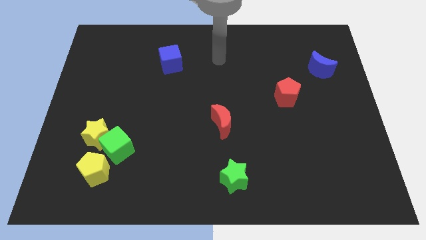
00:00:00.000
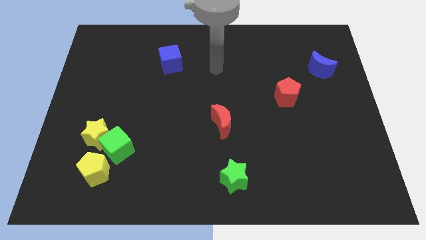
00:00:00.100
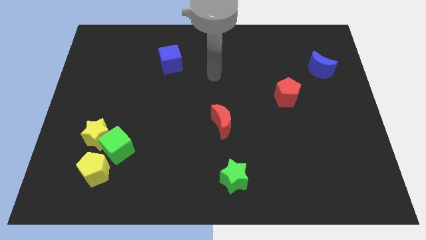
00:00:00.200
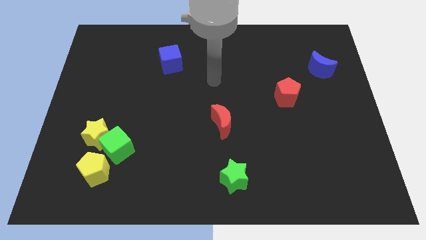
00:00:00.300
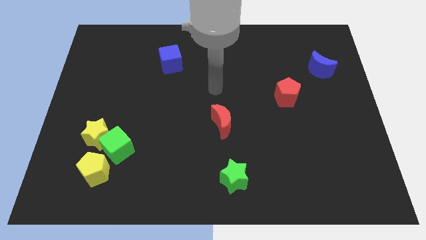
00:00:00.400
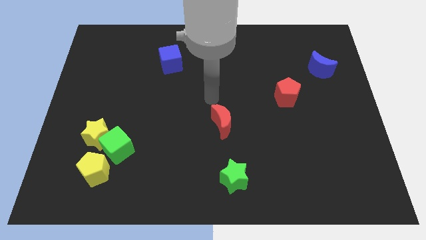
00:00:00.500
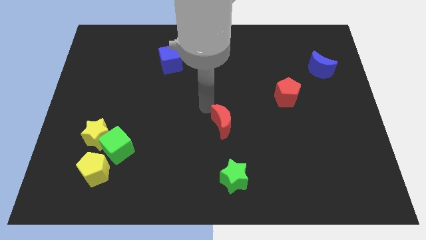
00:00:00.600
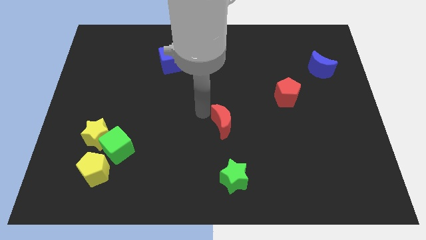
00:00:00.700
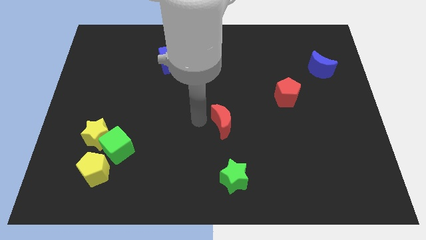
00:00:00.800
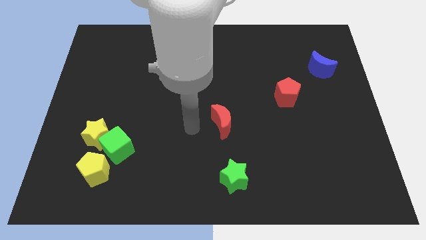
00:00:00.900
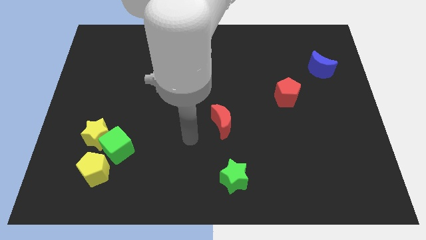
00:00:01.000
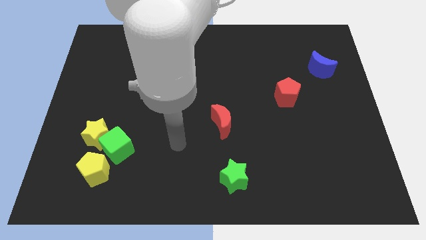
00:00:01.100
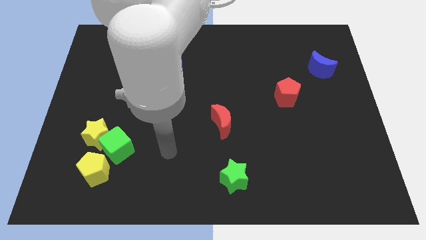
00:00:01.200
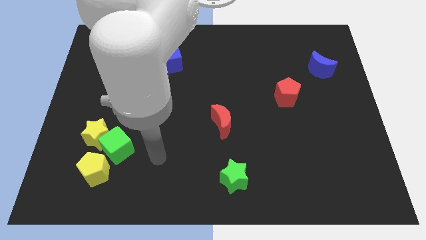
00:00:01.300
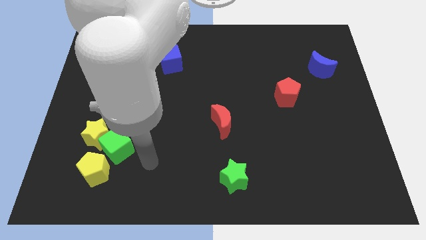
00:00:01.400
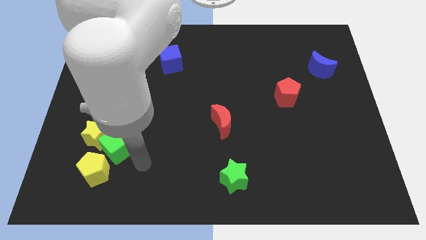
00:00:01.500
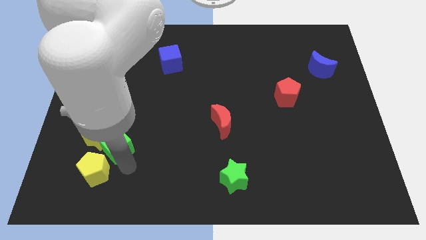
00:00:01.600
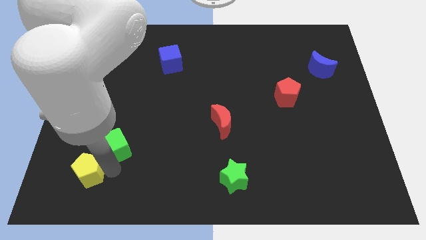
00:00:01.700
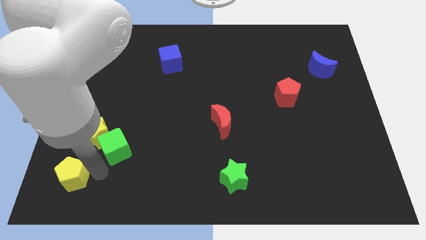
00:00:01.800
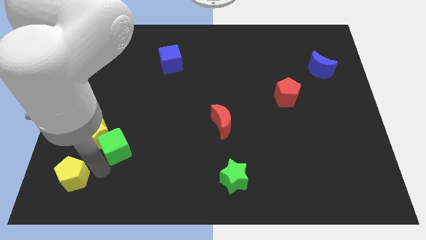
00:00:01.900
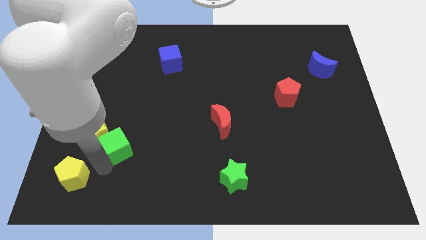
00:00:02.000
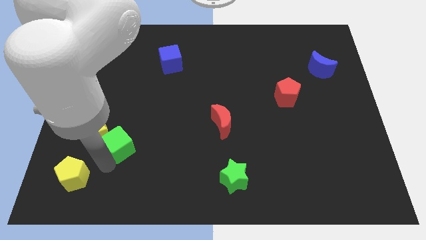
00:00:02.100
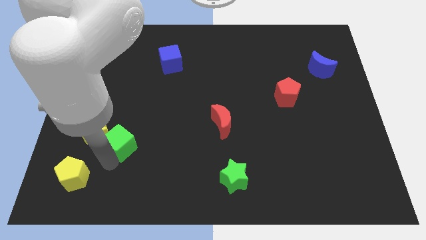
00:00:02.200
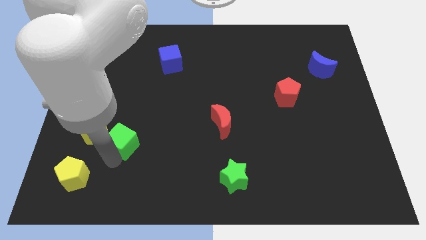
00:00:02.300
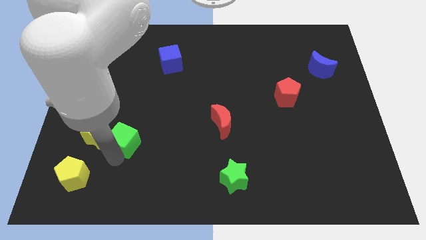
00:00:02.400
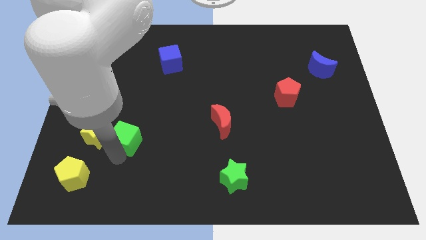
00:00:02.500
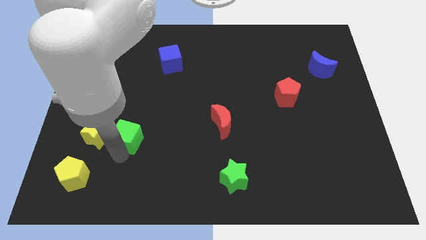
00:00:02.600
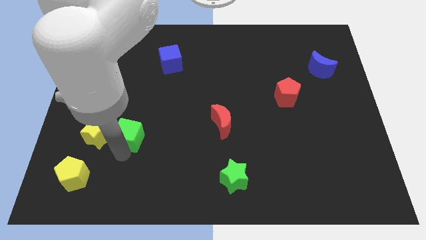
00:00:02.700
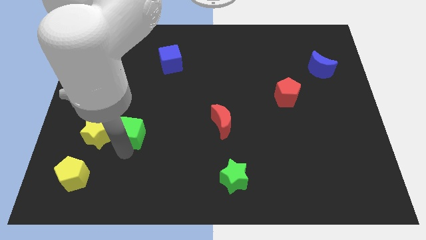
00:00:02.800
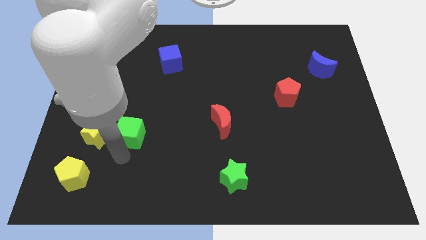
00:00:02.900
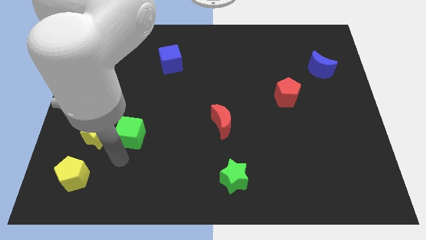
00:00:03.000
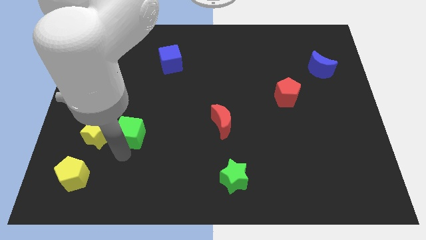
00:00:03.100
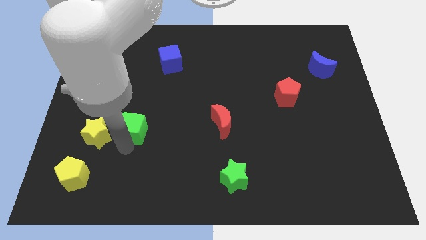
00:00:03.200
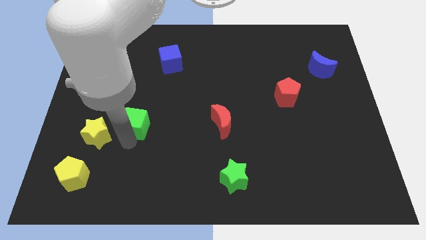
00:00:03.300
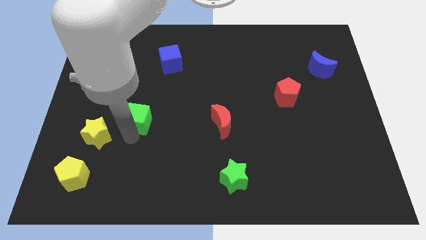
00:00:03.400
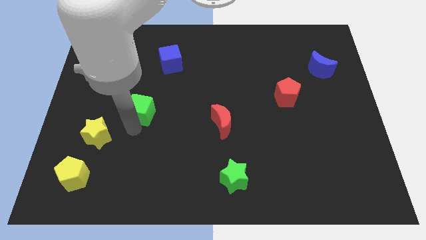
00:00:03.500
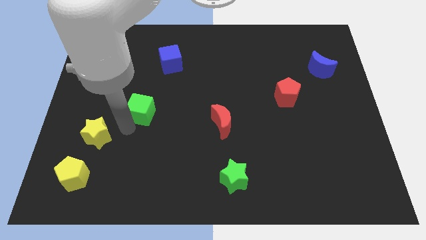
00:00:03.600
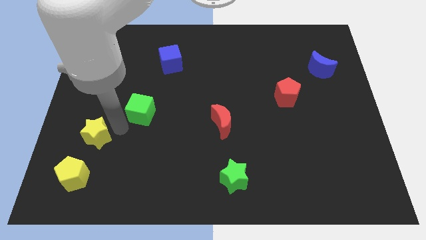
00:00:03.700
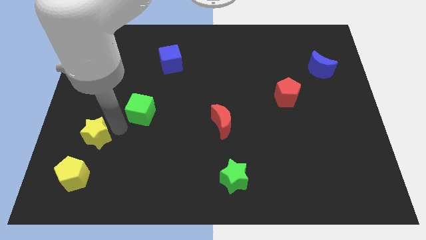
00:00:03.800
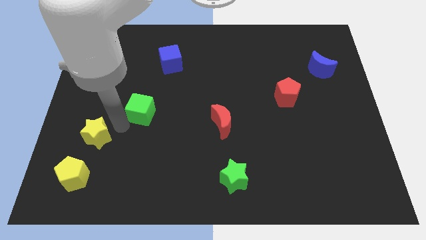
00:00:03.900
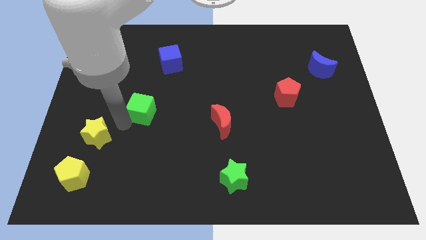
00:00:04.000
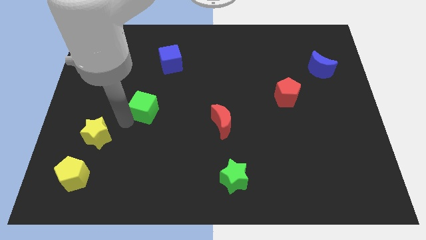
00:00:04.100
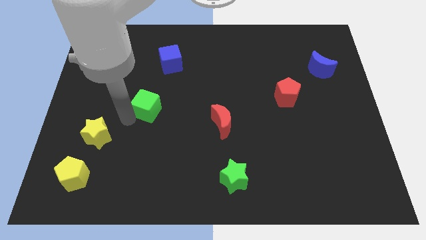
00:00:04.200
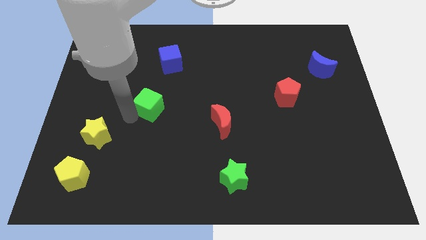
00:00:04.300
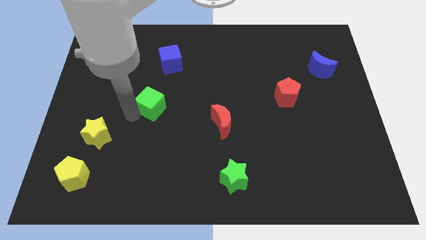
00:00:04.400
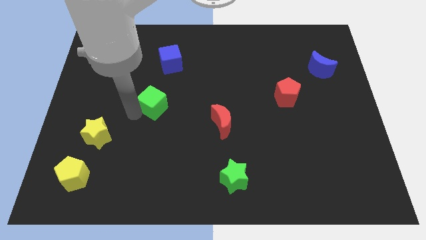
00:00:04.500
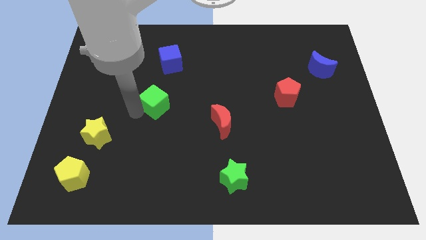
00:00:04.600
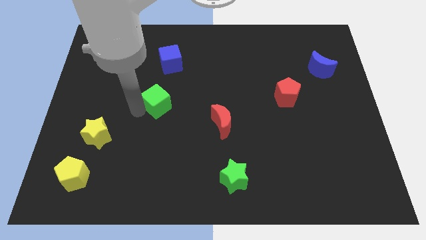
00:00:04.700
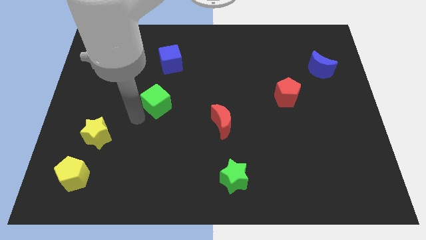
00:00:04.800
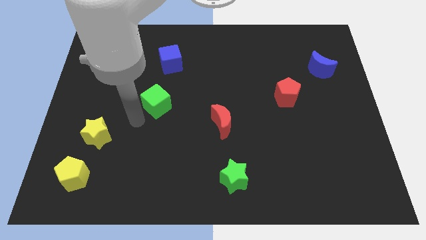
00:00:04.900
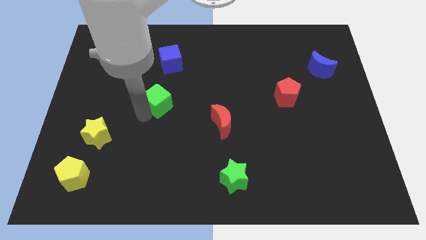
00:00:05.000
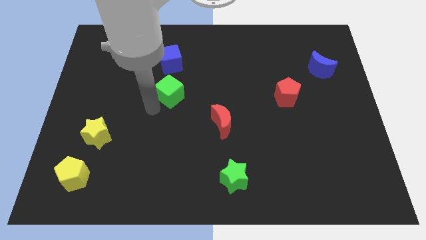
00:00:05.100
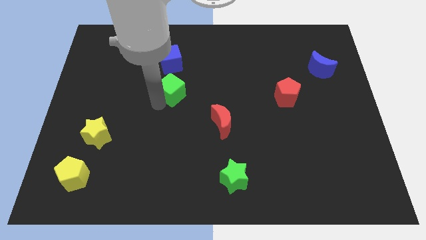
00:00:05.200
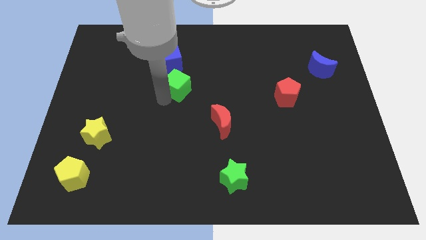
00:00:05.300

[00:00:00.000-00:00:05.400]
slide the green cube to the bottom right of the blue cube

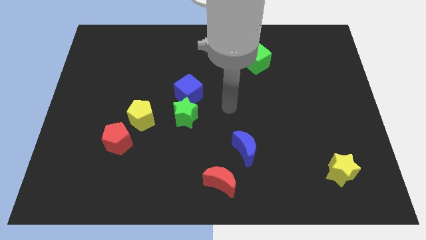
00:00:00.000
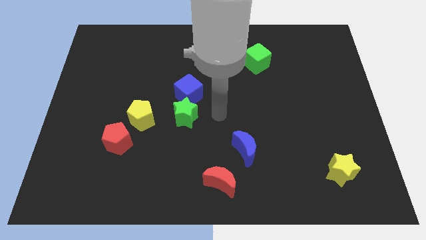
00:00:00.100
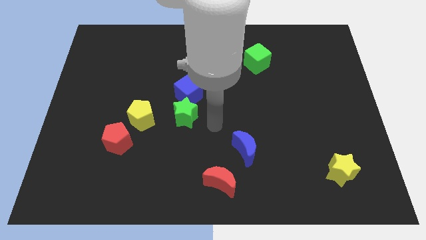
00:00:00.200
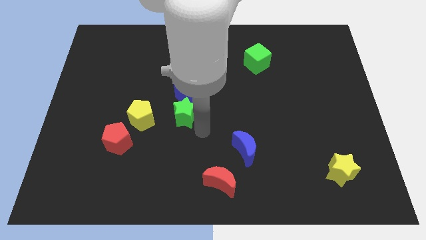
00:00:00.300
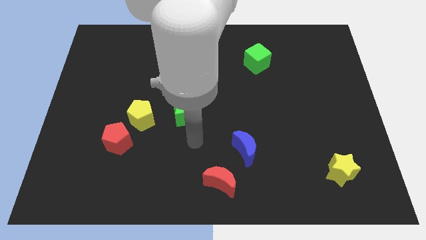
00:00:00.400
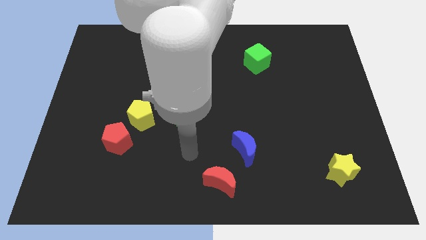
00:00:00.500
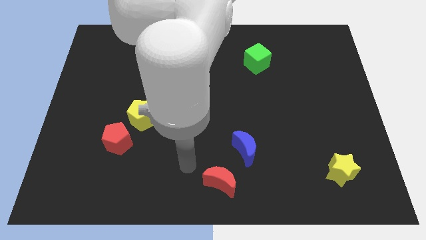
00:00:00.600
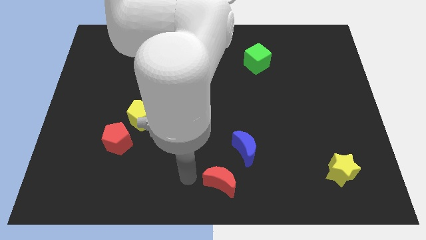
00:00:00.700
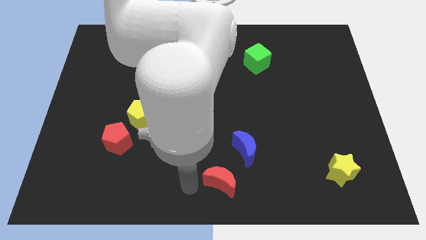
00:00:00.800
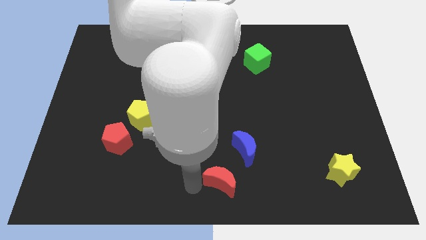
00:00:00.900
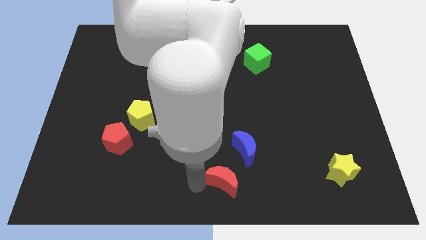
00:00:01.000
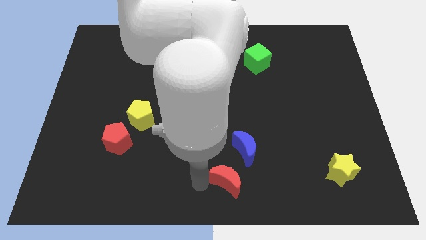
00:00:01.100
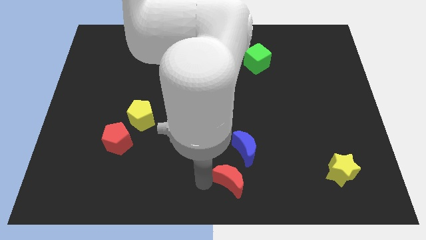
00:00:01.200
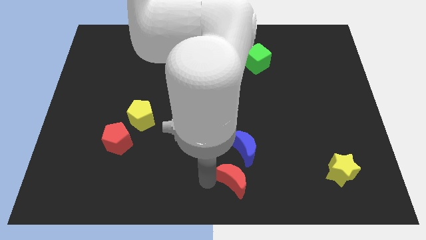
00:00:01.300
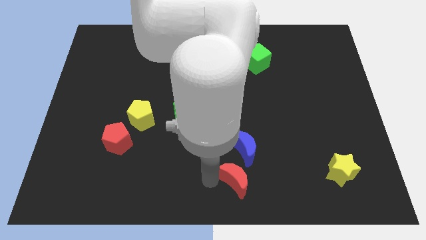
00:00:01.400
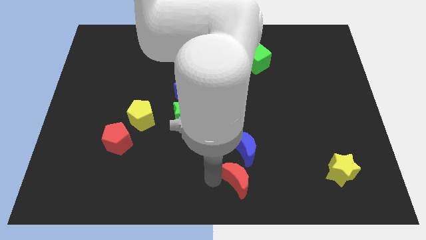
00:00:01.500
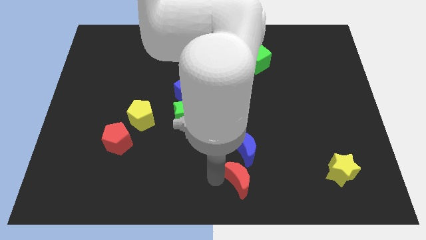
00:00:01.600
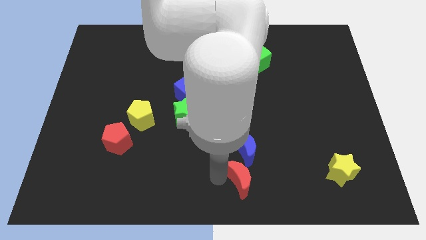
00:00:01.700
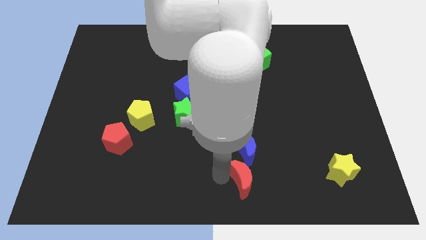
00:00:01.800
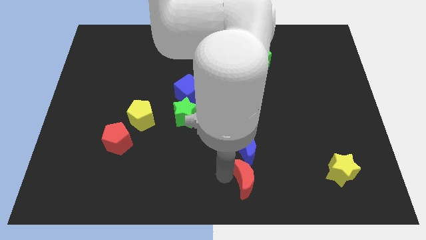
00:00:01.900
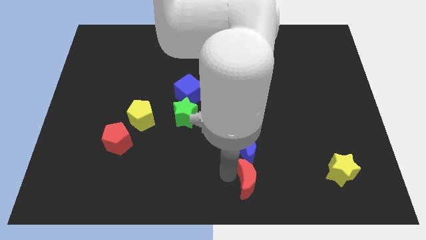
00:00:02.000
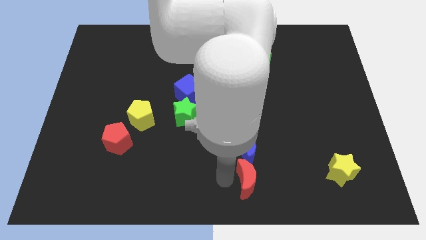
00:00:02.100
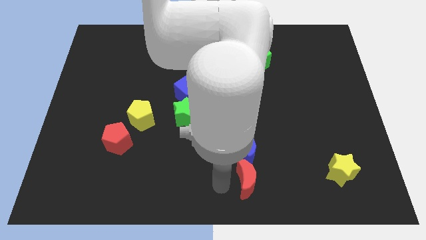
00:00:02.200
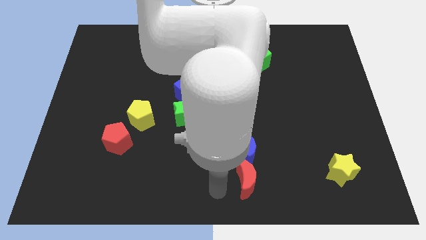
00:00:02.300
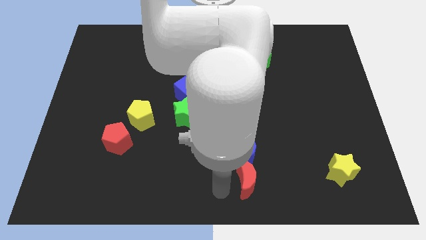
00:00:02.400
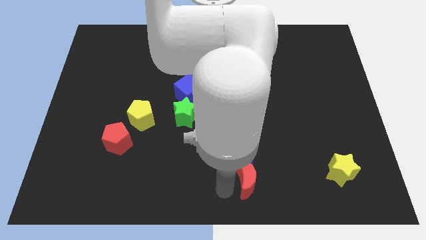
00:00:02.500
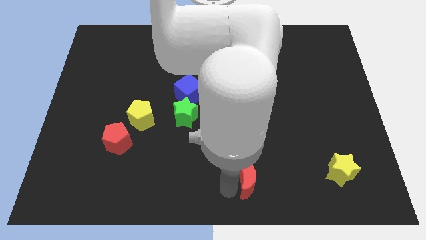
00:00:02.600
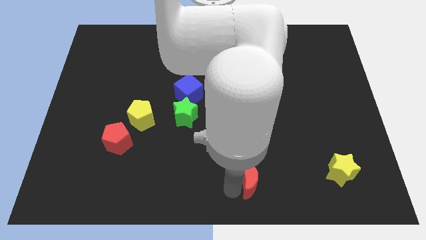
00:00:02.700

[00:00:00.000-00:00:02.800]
push the red moon to the bottom right of the blue moon

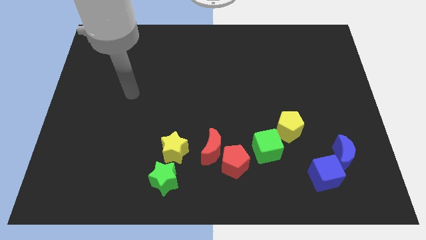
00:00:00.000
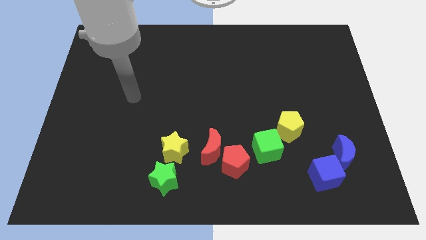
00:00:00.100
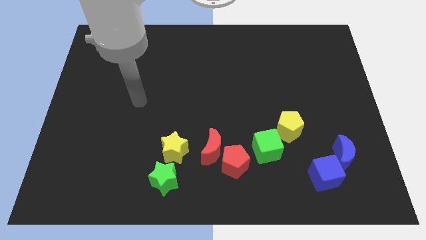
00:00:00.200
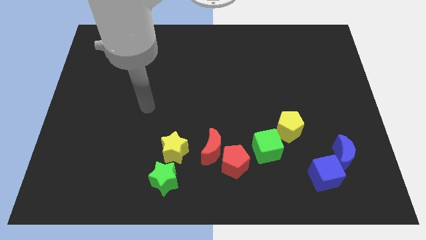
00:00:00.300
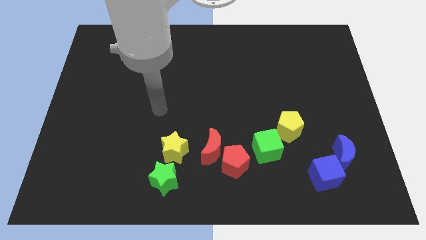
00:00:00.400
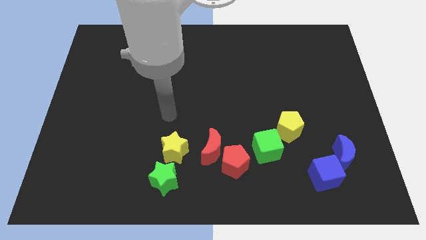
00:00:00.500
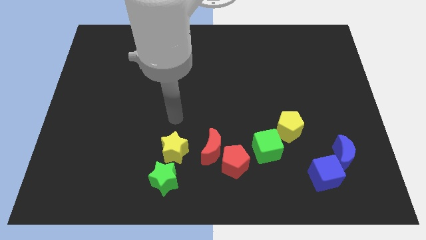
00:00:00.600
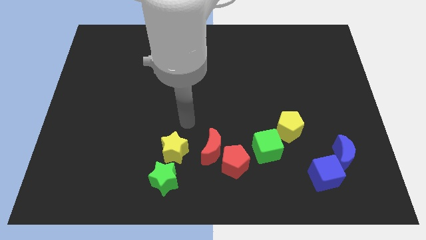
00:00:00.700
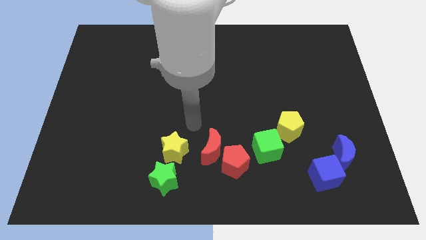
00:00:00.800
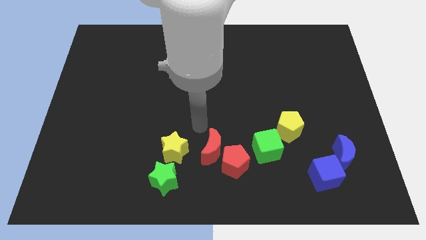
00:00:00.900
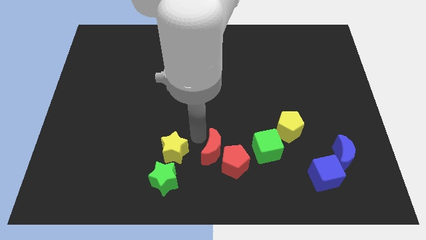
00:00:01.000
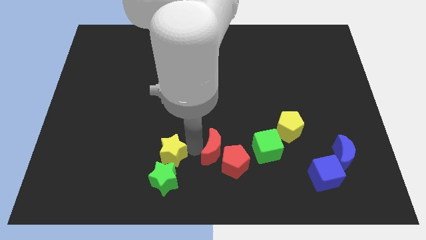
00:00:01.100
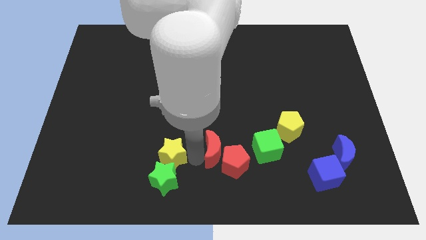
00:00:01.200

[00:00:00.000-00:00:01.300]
put the red moon diagonally up and to the right of the yellow star
